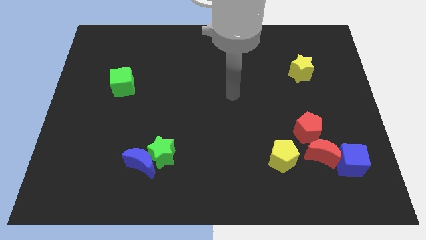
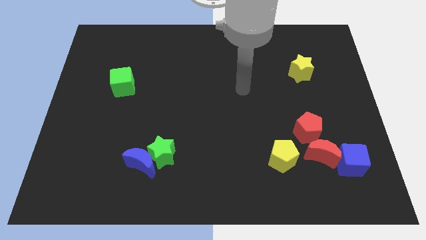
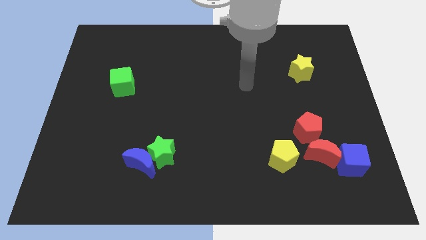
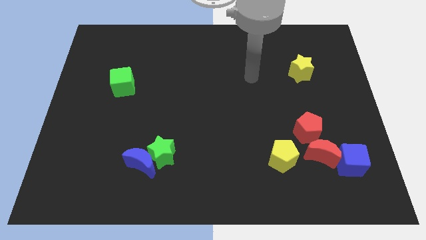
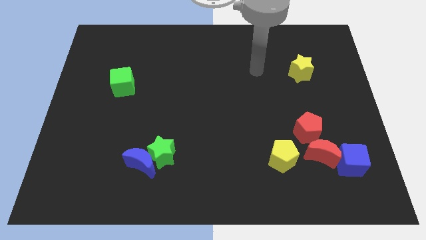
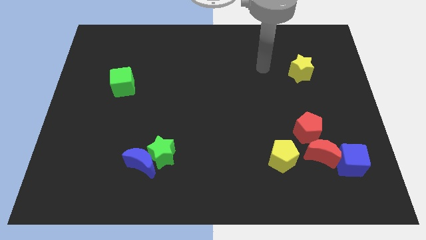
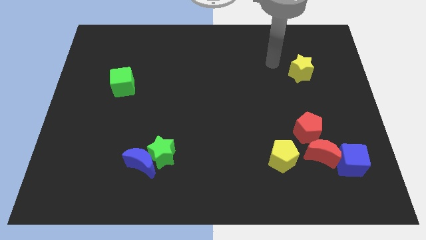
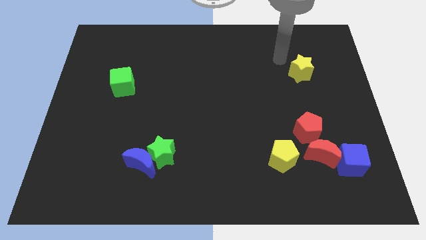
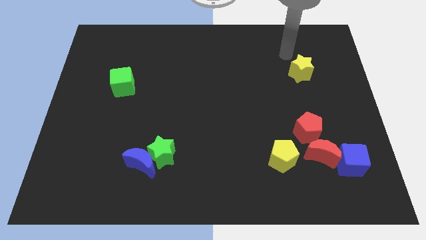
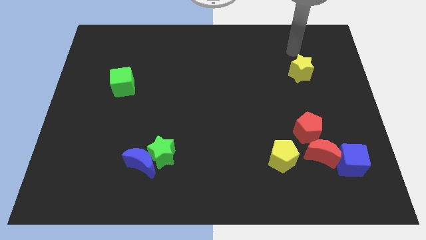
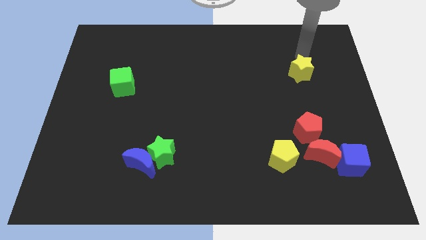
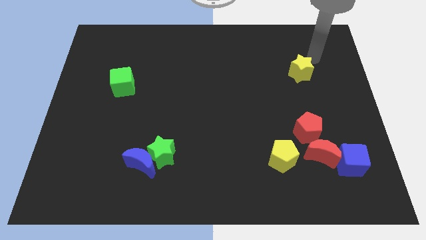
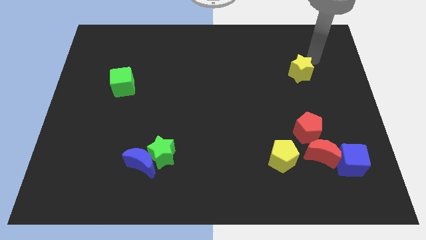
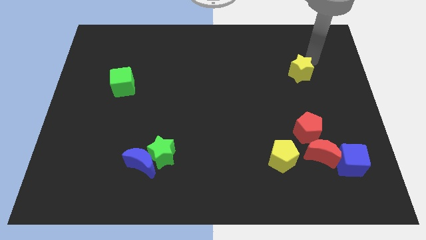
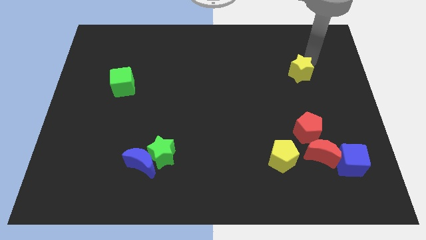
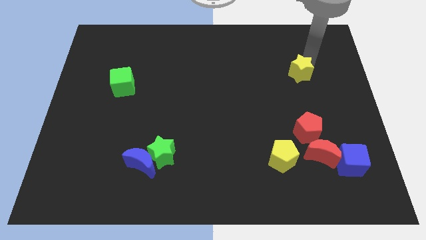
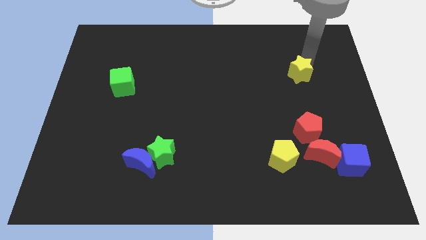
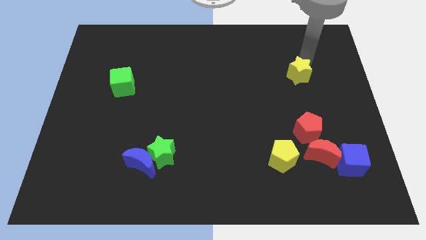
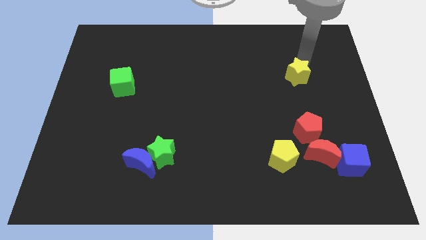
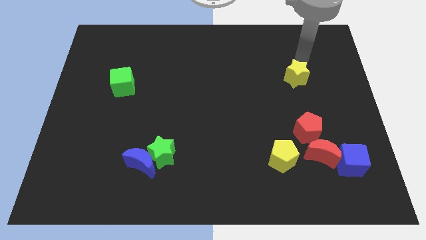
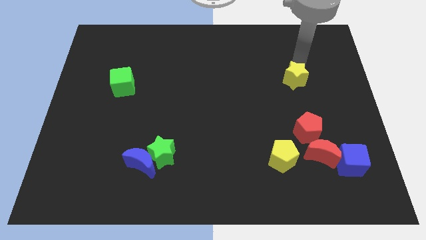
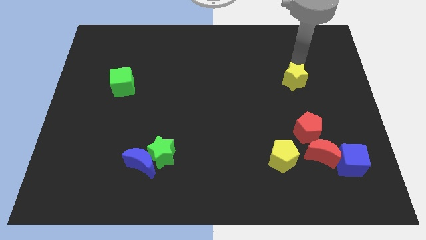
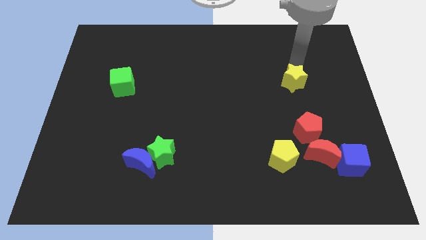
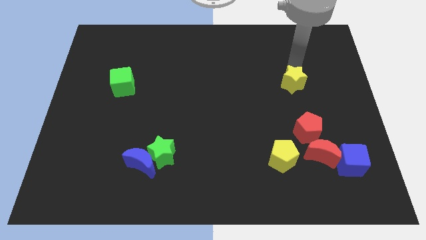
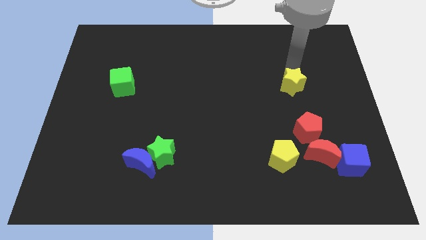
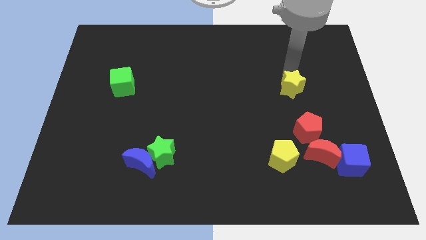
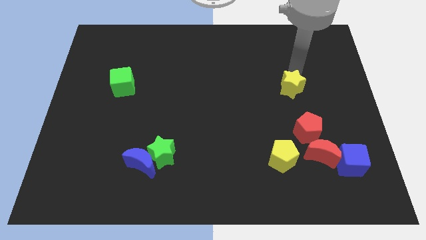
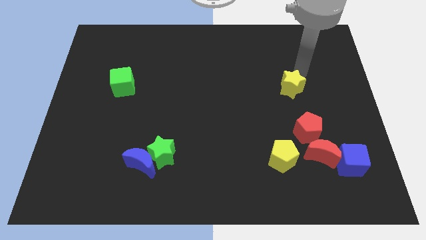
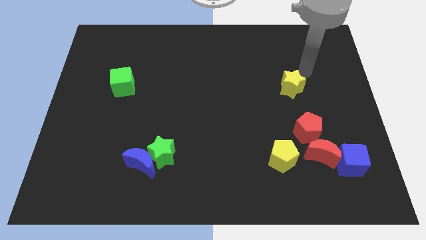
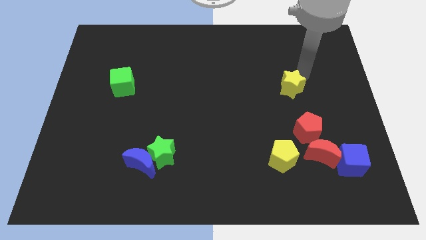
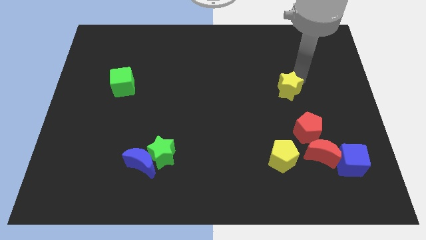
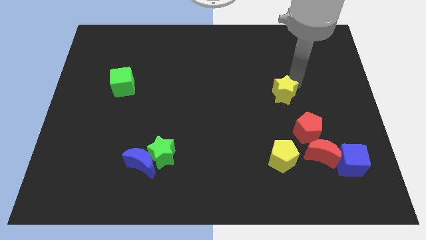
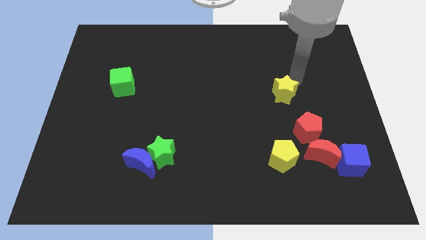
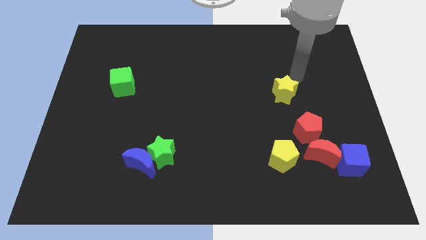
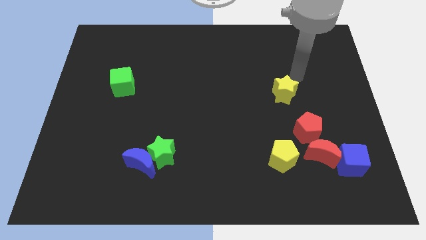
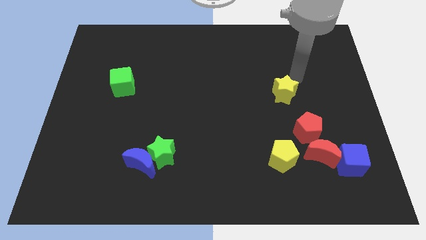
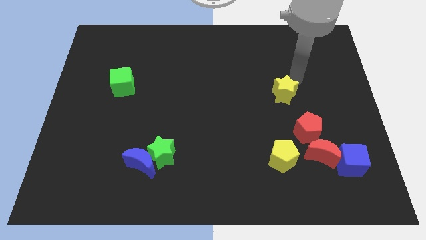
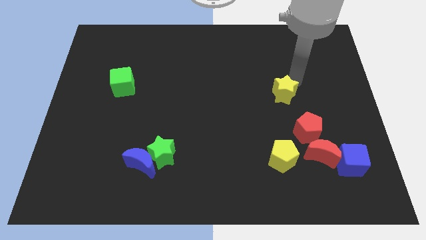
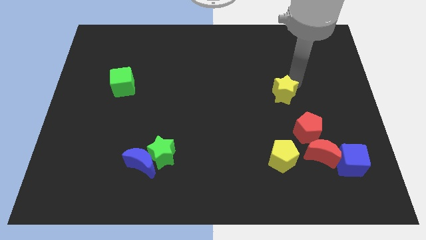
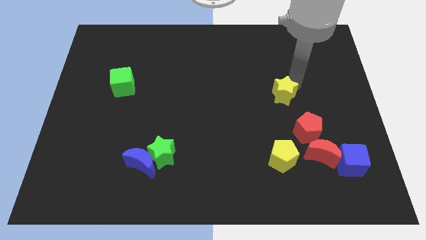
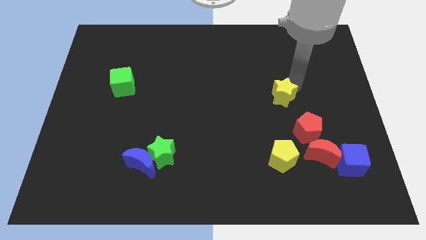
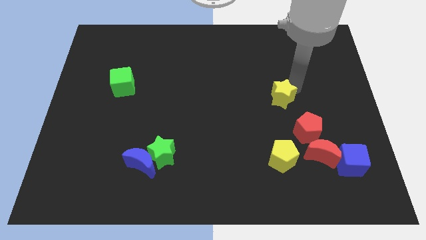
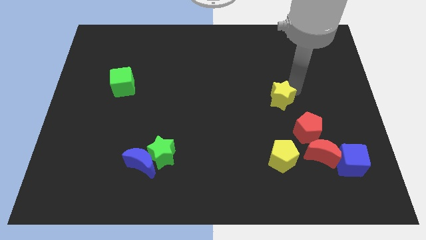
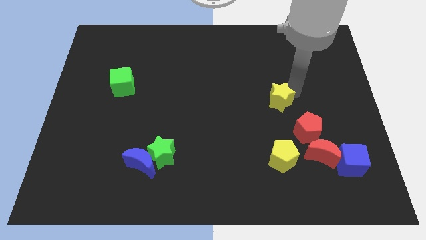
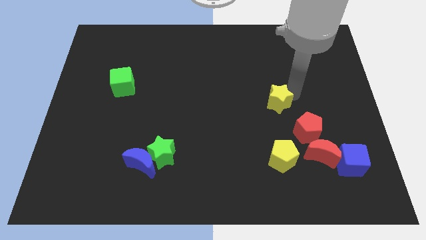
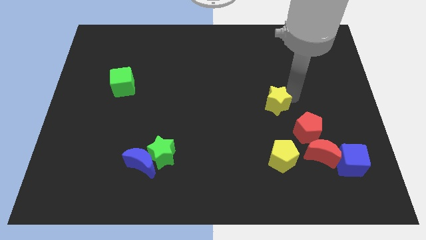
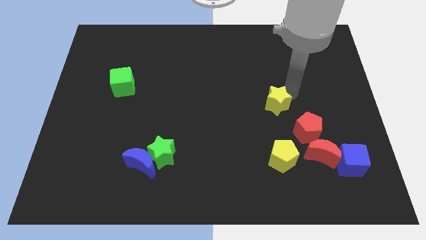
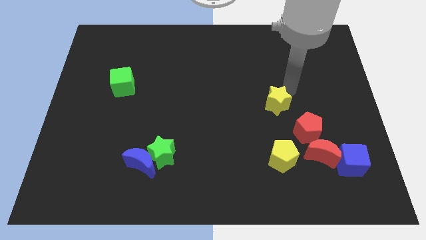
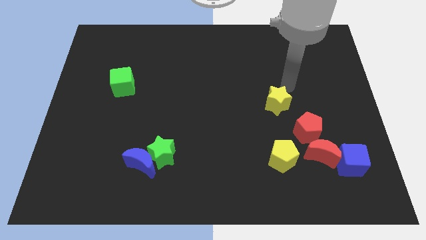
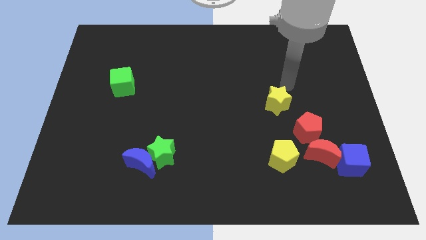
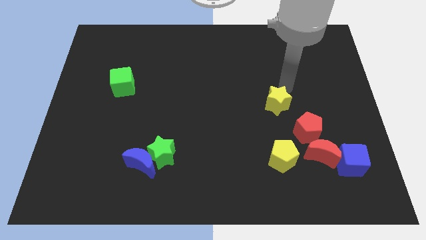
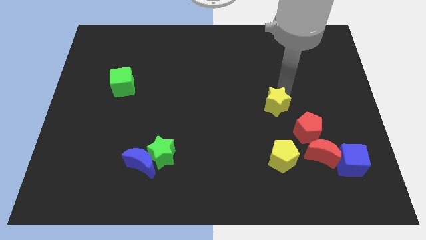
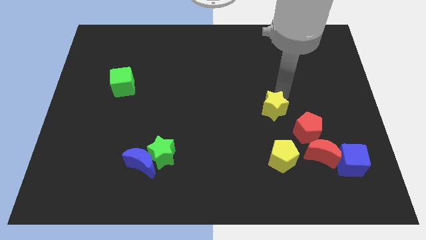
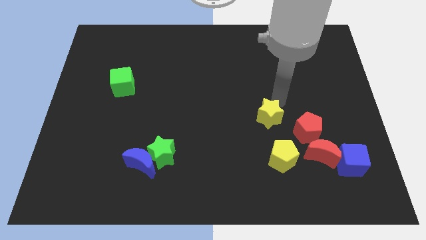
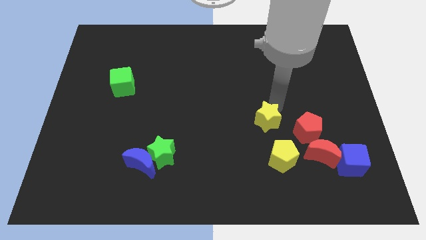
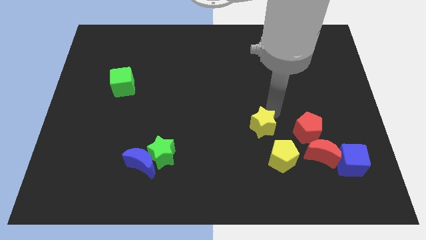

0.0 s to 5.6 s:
slide the yellow star diagonally up and to the left of the yellow pentagon

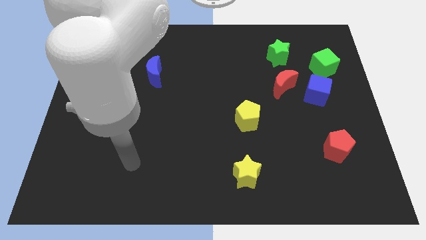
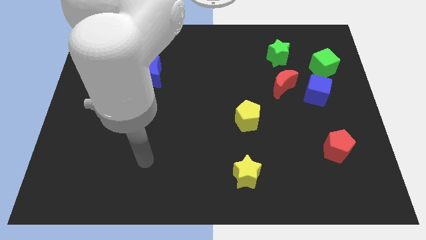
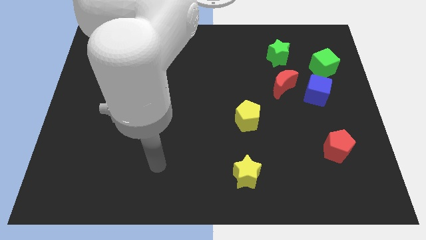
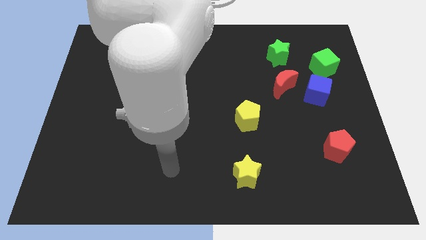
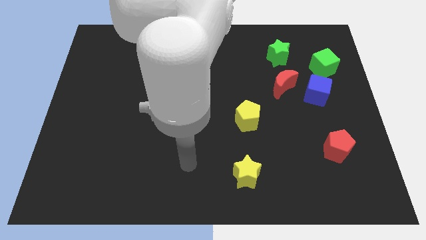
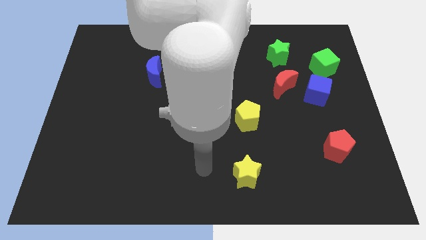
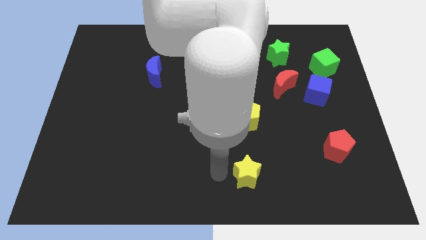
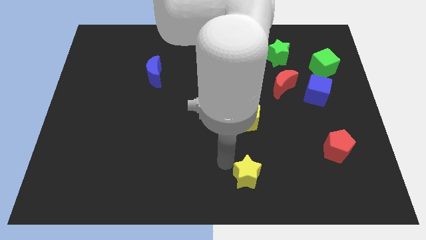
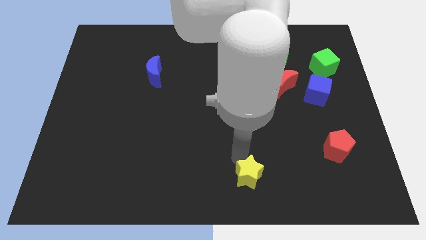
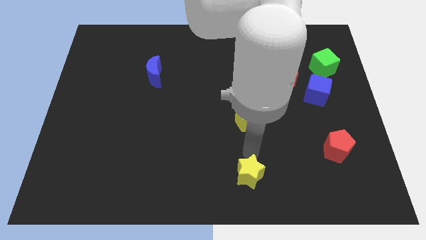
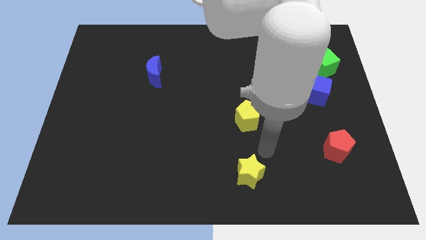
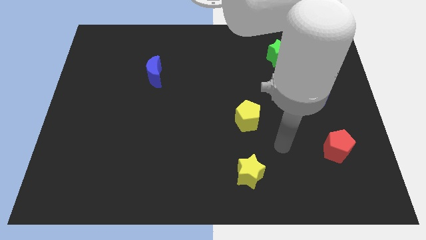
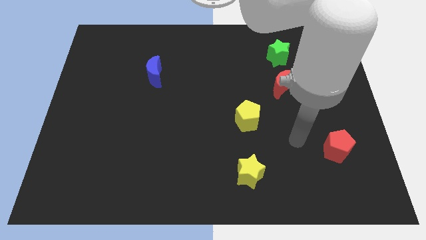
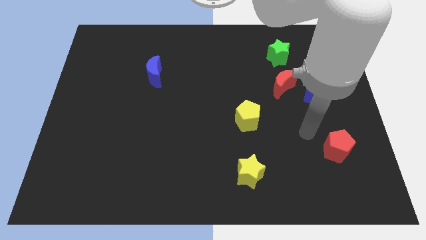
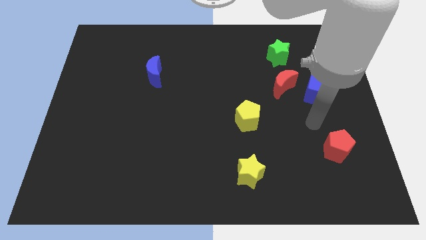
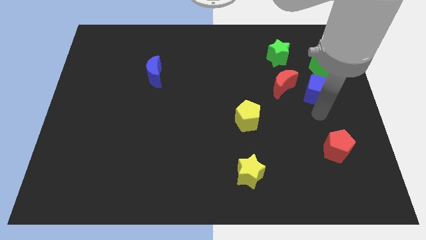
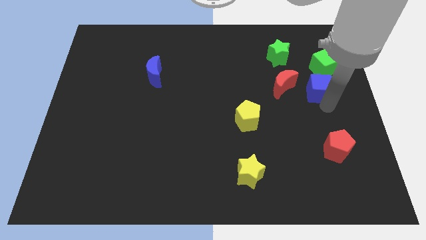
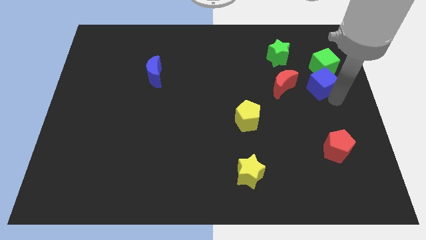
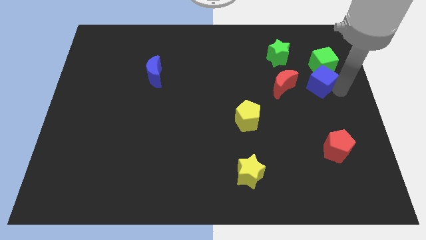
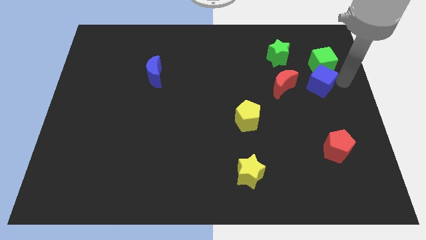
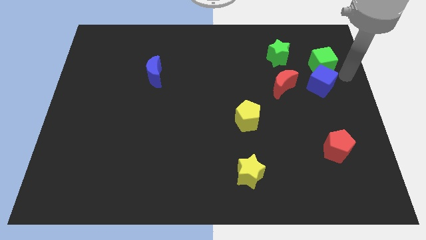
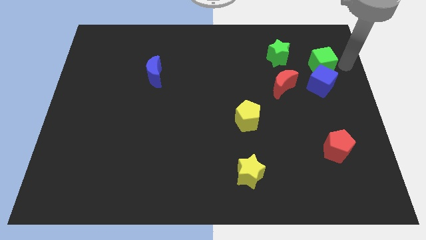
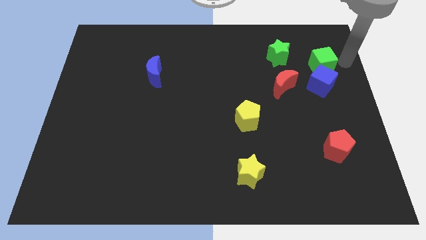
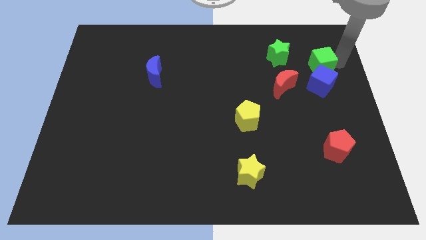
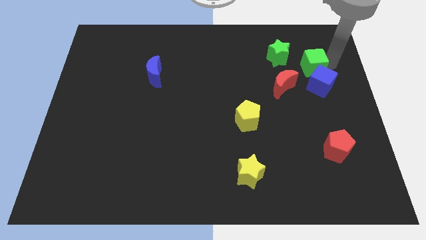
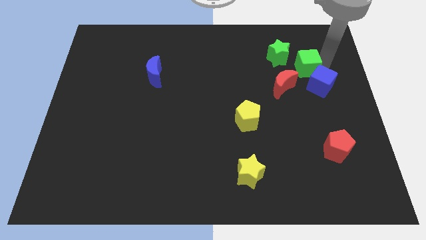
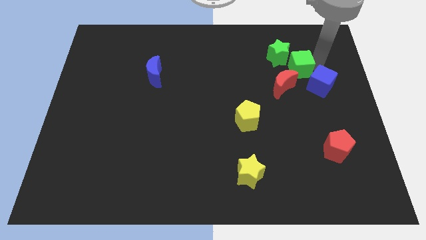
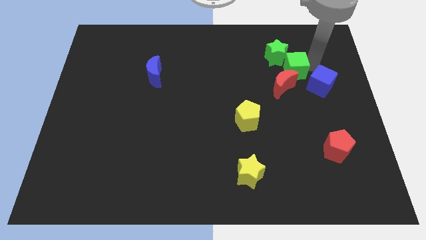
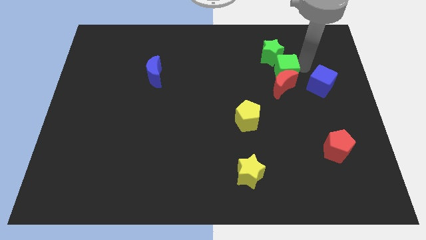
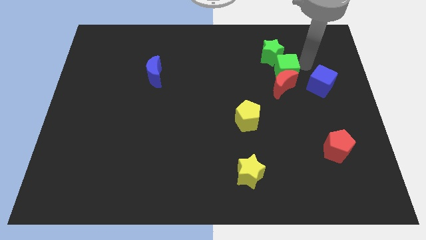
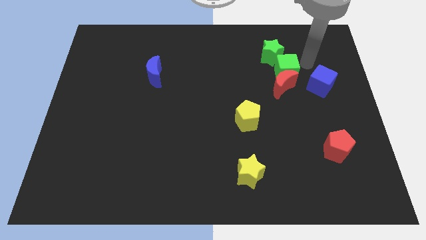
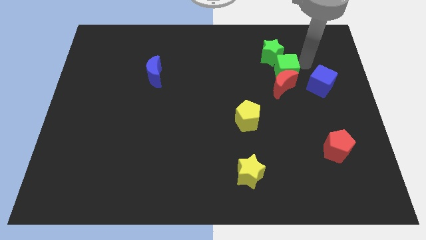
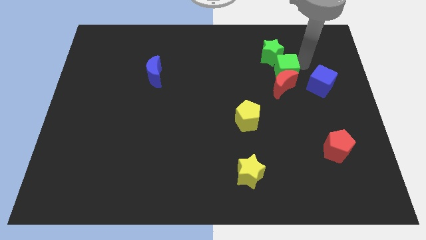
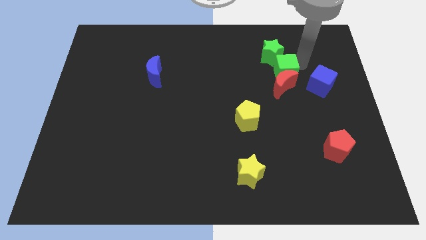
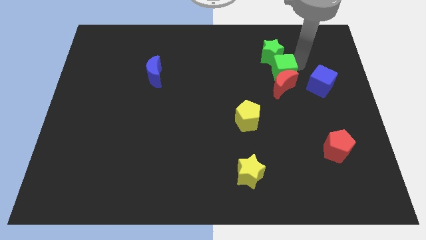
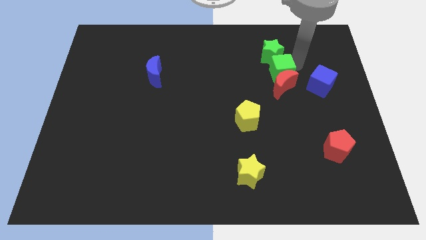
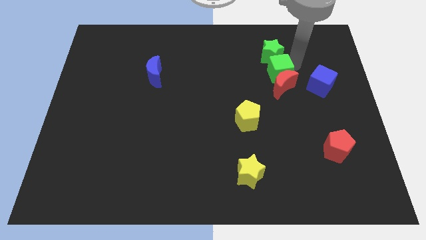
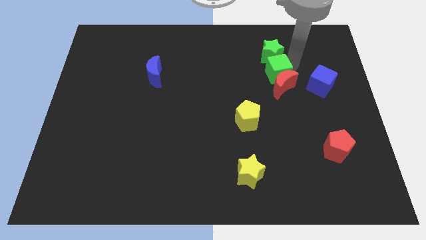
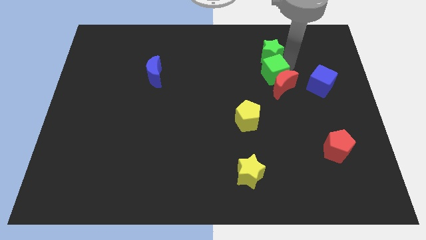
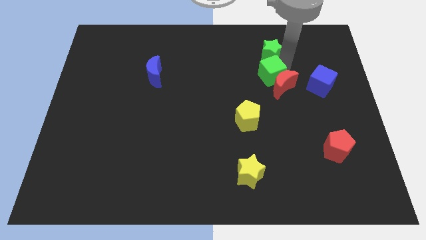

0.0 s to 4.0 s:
push the green cube to the left of the red moon
